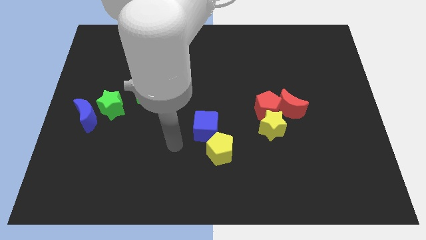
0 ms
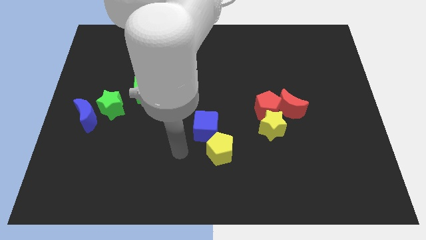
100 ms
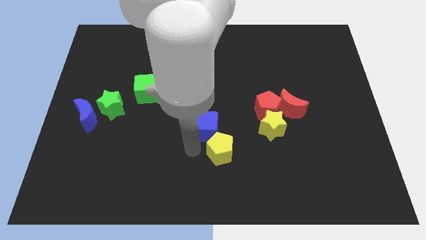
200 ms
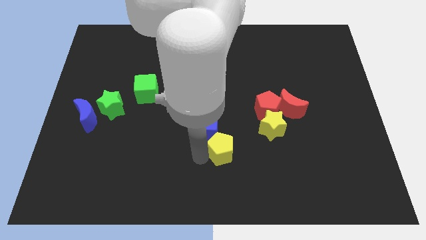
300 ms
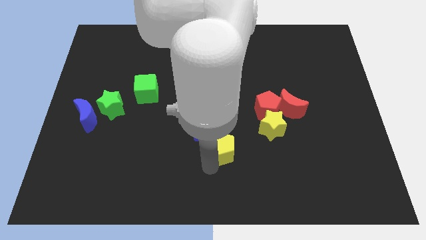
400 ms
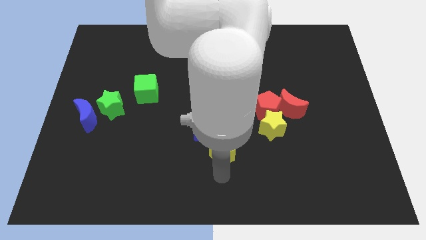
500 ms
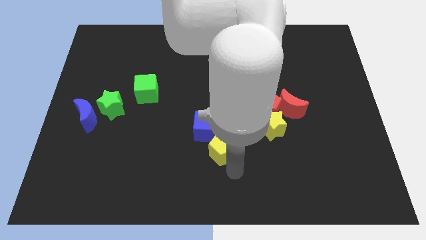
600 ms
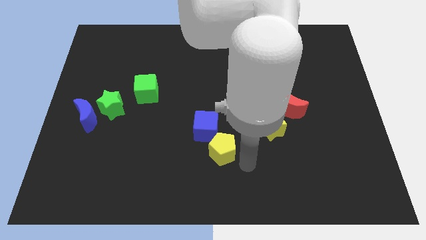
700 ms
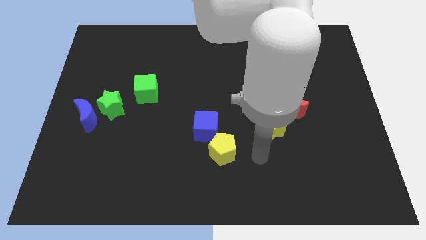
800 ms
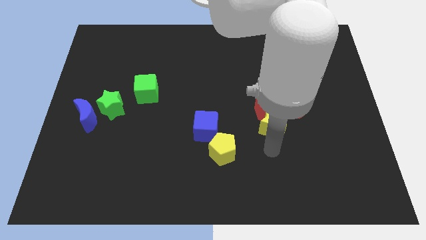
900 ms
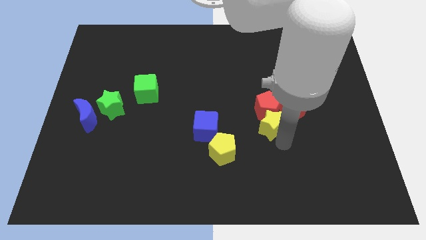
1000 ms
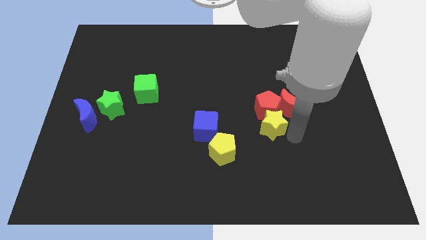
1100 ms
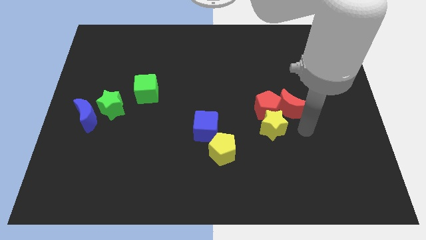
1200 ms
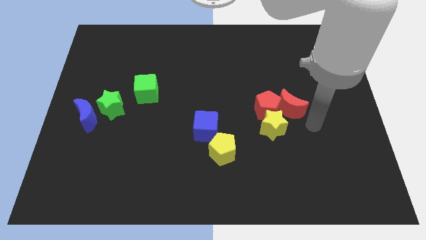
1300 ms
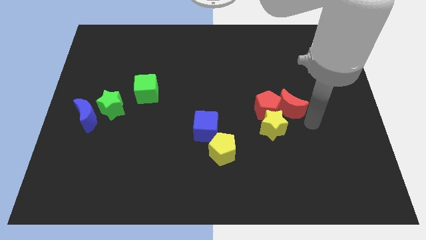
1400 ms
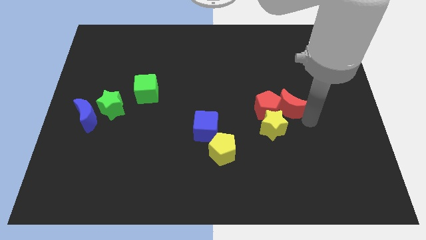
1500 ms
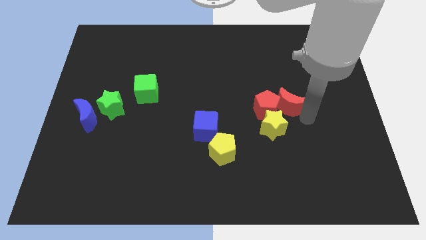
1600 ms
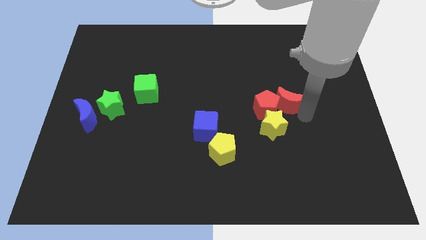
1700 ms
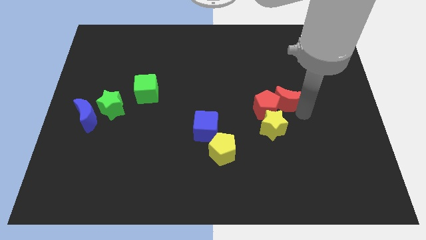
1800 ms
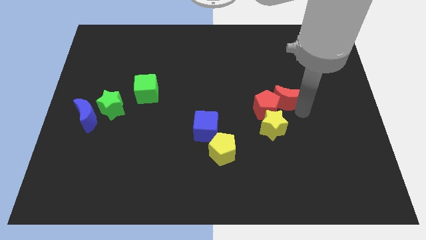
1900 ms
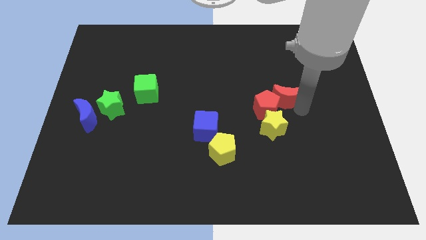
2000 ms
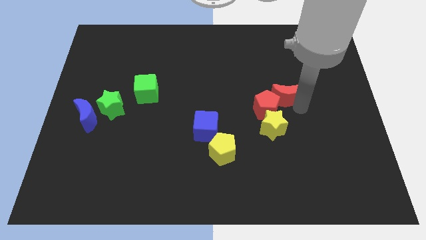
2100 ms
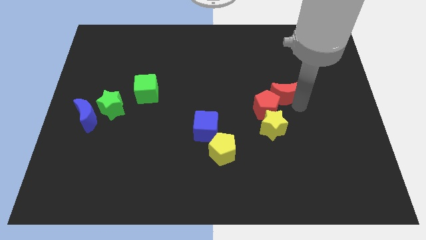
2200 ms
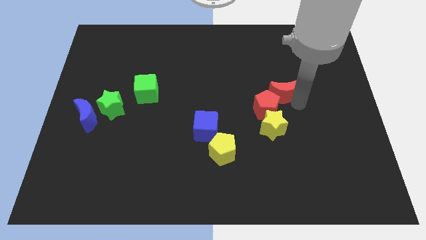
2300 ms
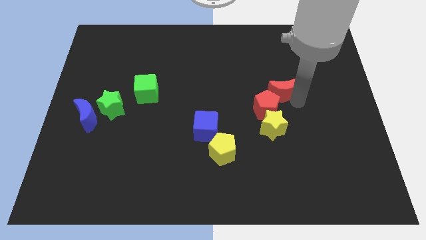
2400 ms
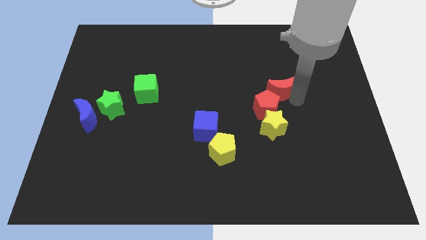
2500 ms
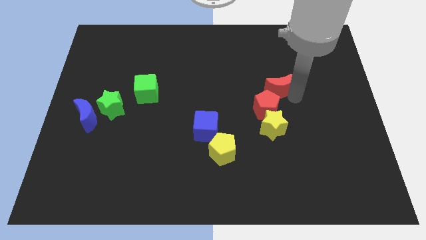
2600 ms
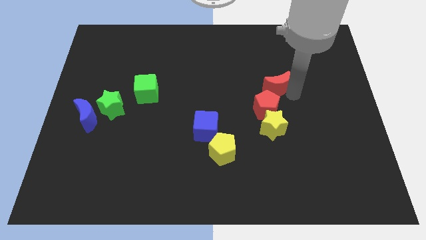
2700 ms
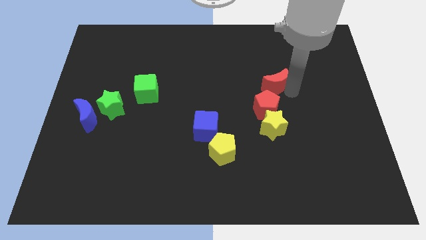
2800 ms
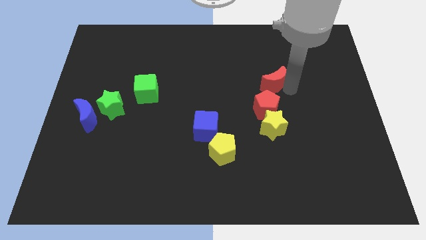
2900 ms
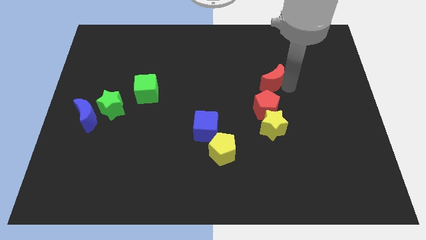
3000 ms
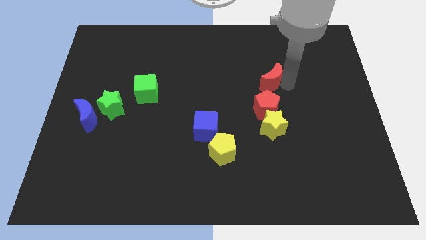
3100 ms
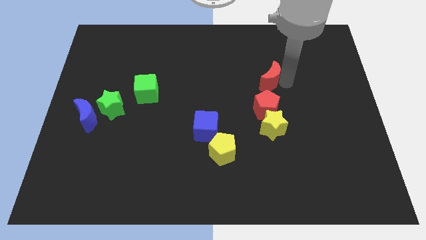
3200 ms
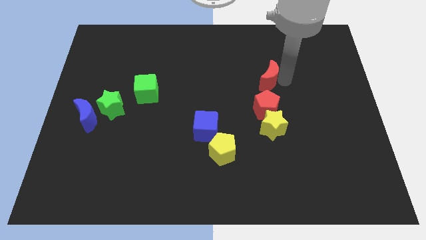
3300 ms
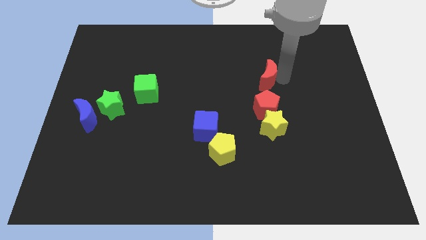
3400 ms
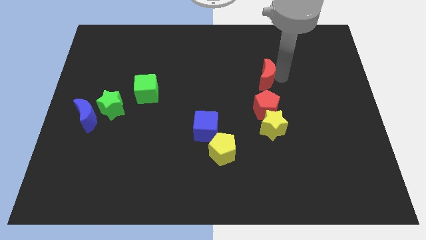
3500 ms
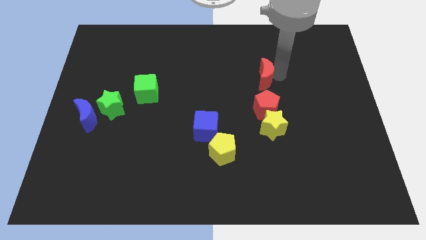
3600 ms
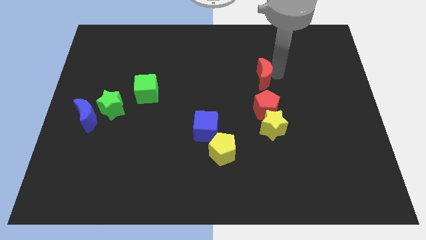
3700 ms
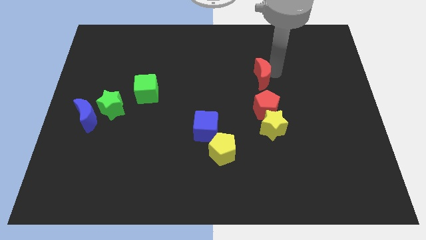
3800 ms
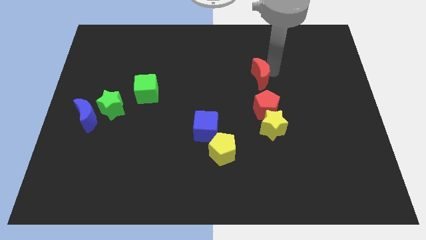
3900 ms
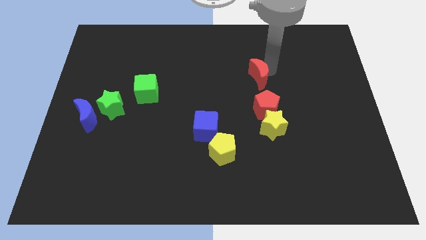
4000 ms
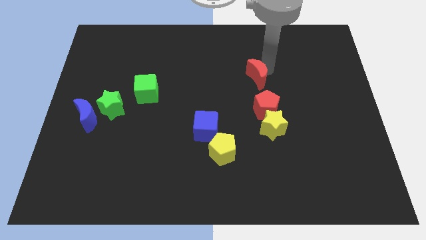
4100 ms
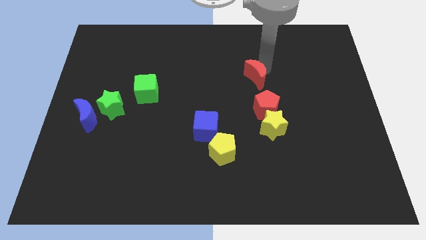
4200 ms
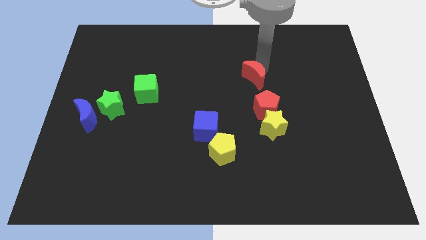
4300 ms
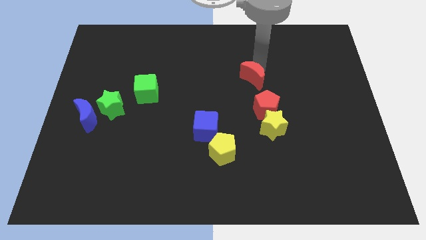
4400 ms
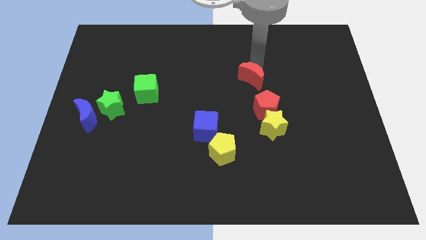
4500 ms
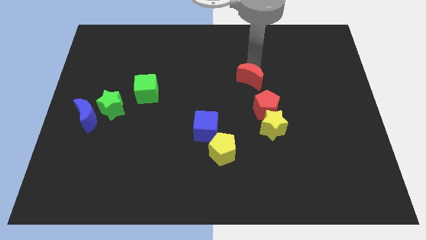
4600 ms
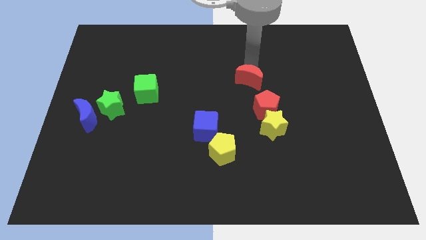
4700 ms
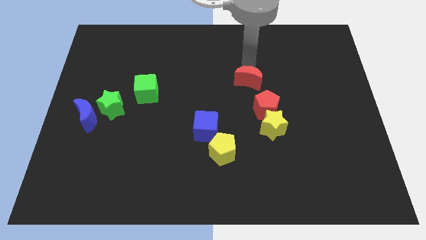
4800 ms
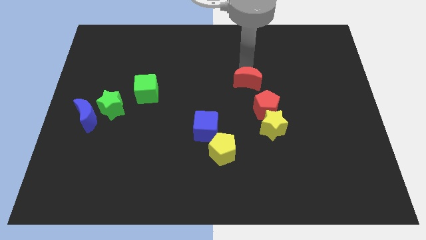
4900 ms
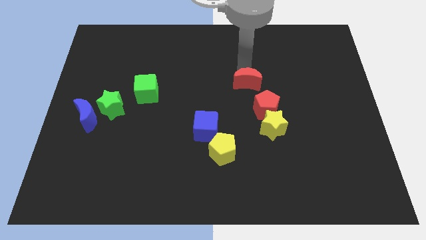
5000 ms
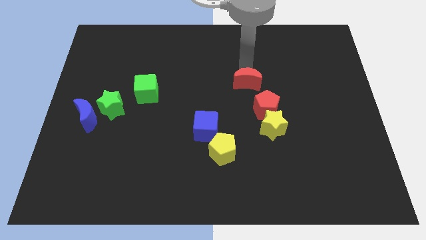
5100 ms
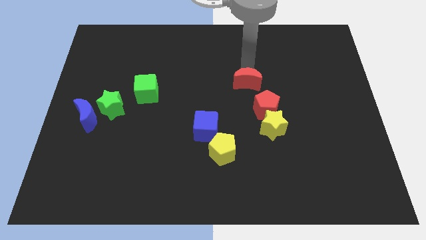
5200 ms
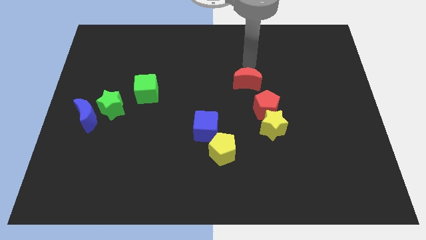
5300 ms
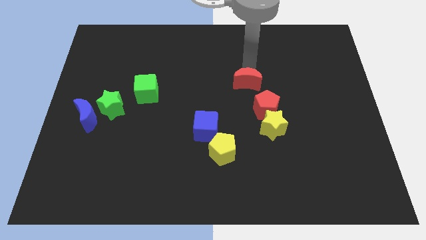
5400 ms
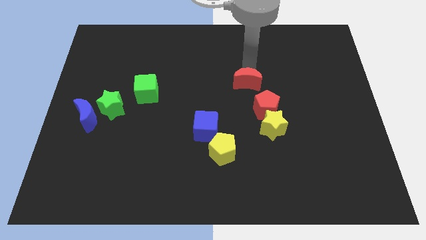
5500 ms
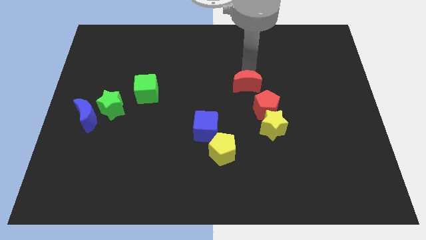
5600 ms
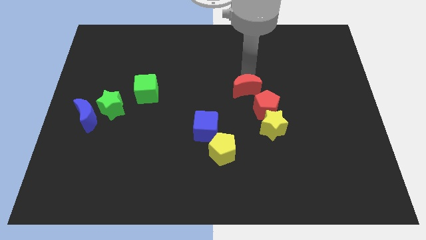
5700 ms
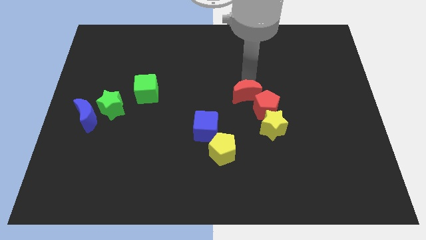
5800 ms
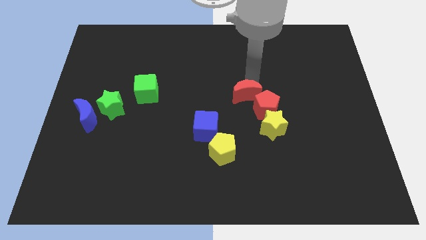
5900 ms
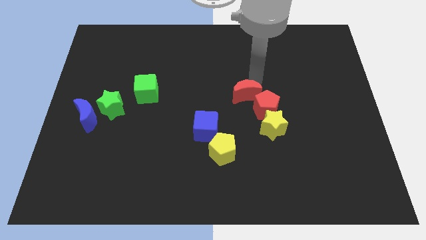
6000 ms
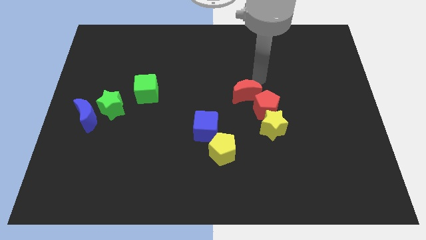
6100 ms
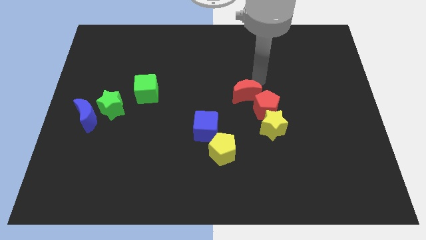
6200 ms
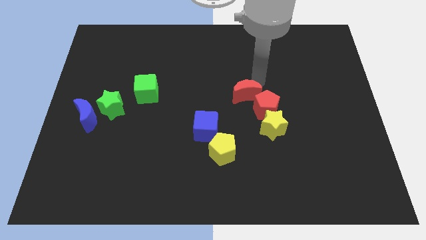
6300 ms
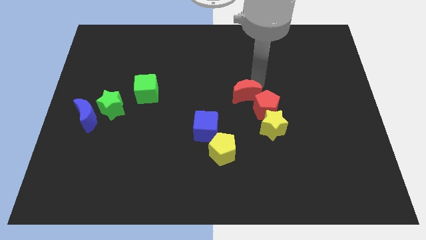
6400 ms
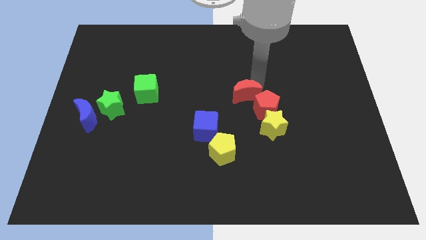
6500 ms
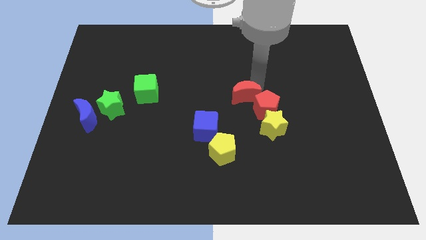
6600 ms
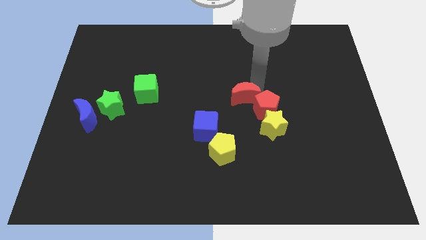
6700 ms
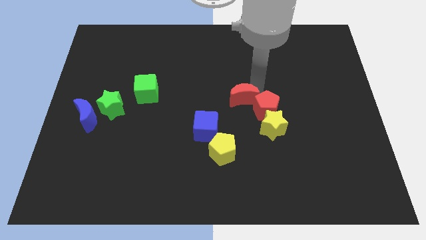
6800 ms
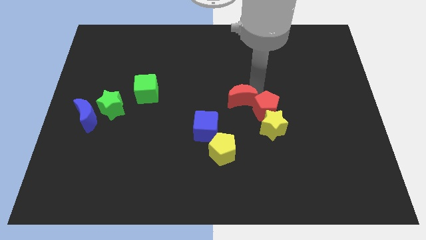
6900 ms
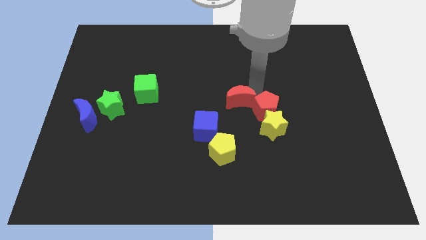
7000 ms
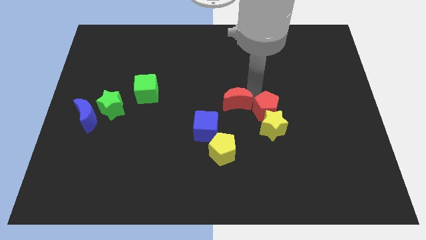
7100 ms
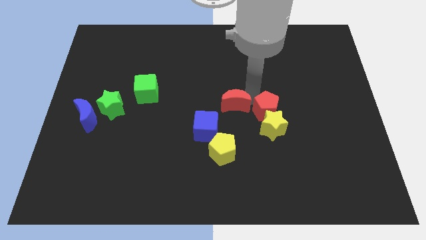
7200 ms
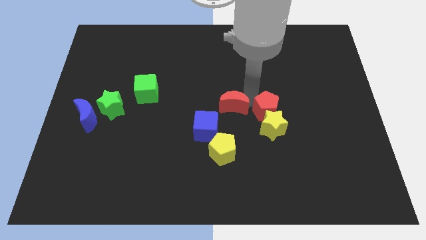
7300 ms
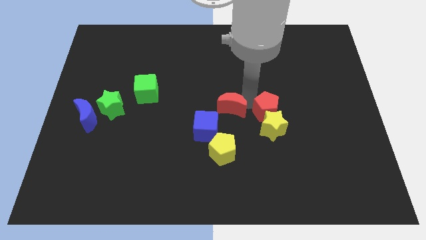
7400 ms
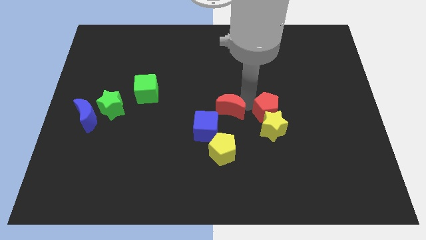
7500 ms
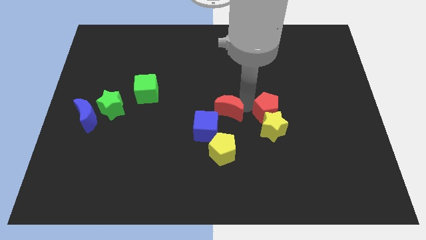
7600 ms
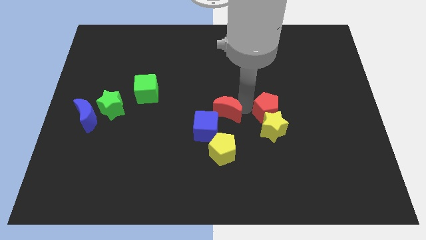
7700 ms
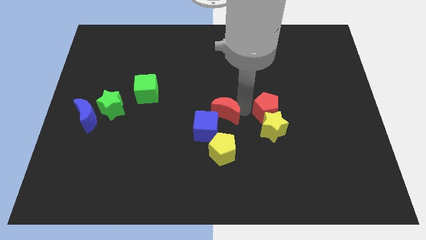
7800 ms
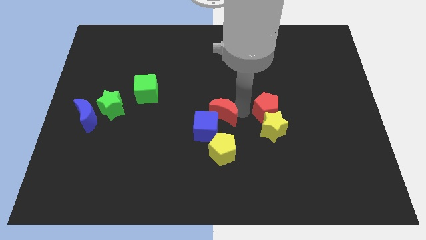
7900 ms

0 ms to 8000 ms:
push the red moon to the blue cube
